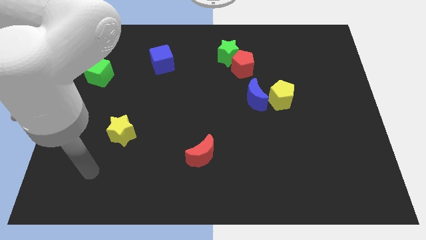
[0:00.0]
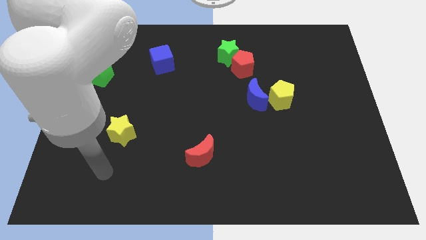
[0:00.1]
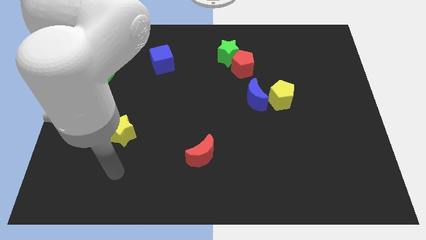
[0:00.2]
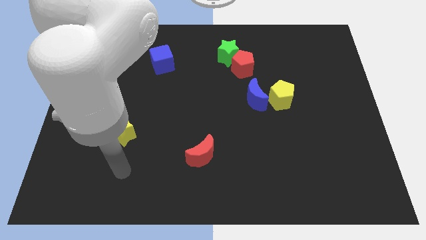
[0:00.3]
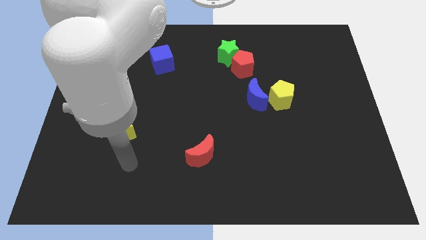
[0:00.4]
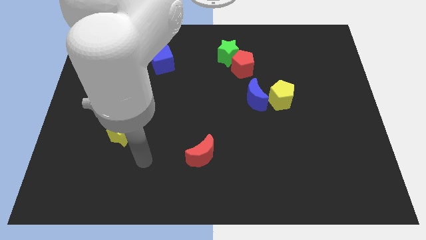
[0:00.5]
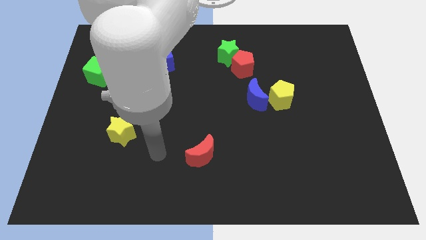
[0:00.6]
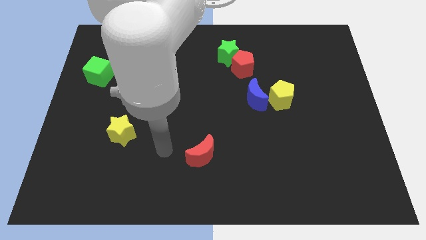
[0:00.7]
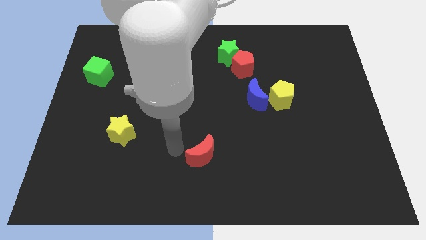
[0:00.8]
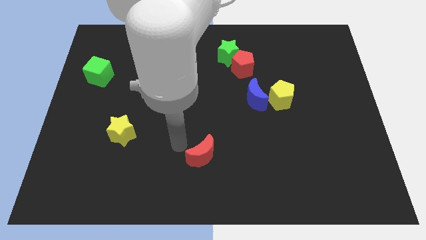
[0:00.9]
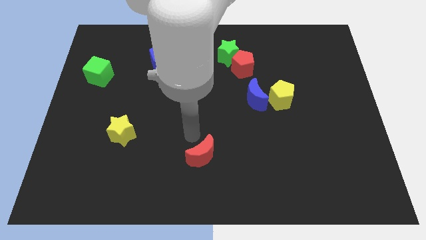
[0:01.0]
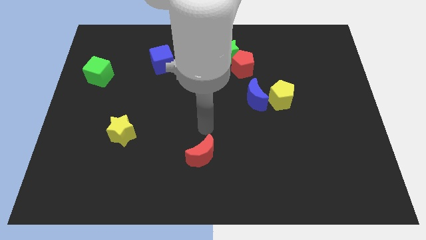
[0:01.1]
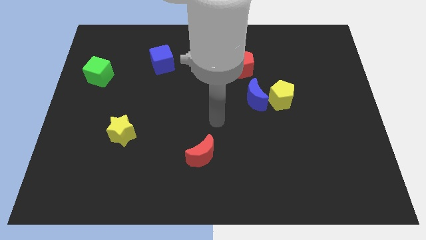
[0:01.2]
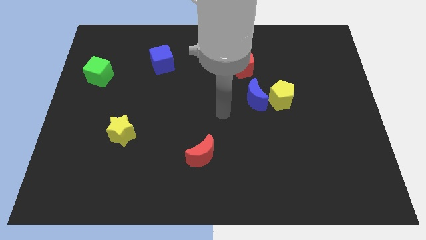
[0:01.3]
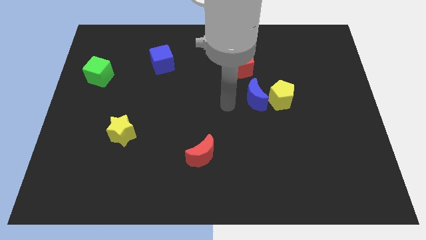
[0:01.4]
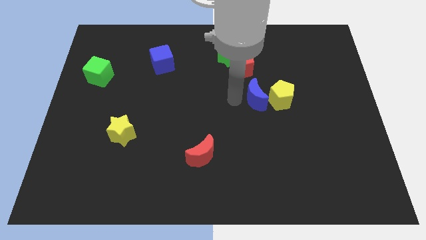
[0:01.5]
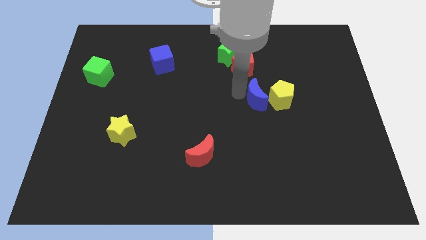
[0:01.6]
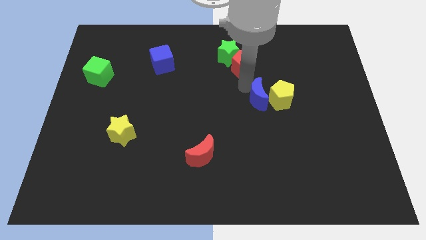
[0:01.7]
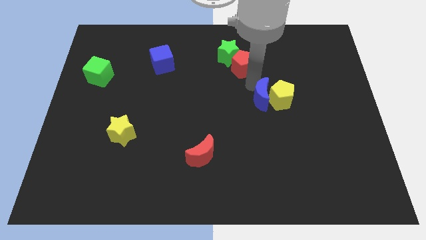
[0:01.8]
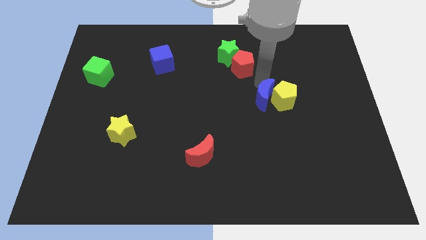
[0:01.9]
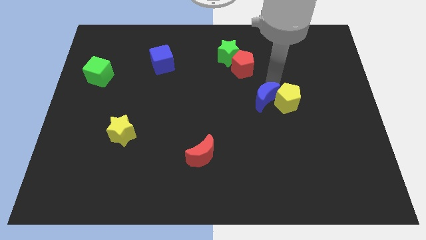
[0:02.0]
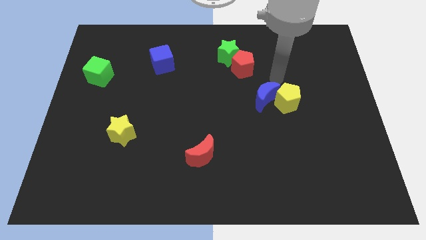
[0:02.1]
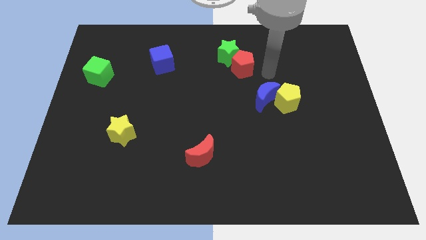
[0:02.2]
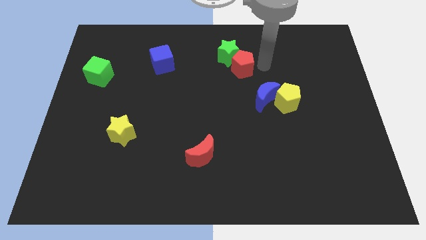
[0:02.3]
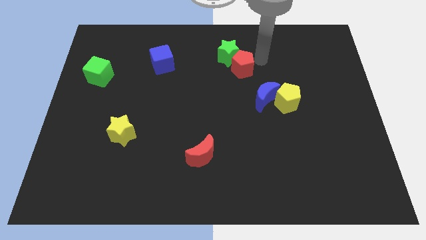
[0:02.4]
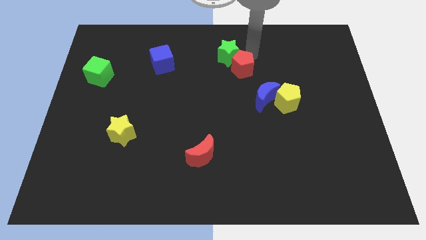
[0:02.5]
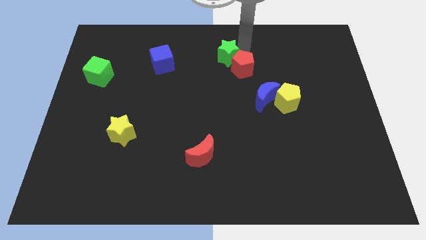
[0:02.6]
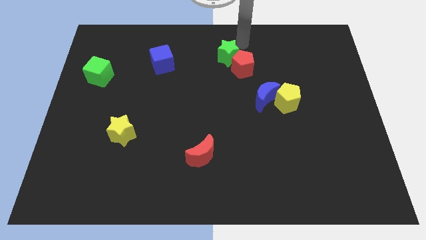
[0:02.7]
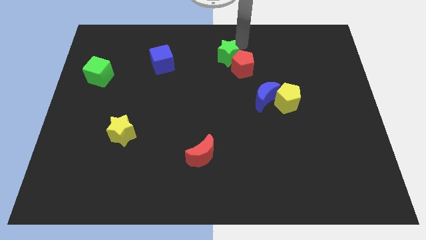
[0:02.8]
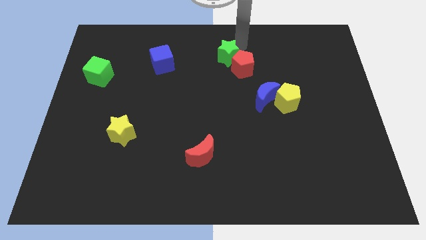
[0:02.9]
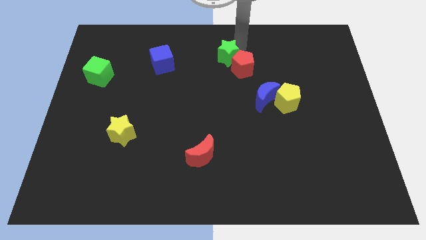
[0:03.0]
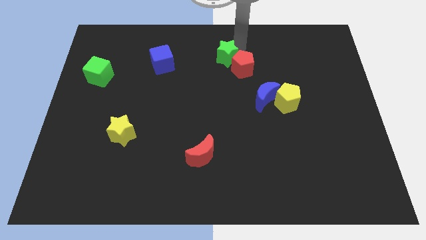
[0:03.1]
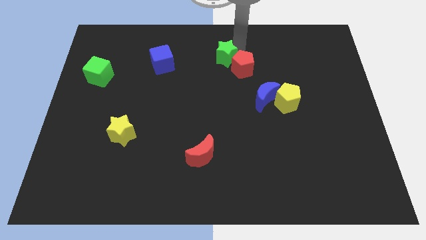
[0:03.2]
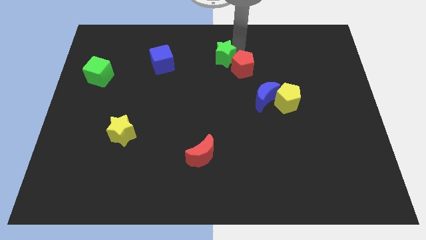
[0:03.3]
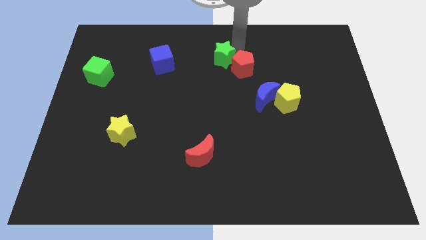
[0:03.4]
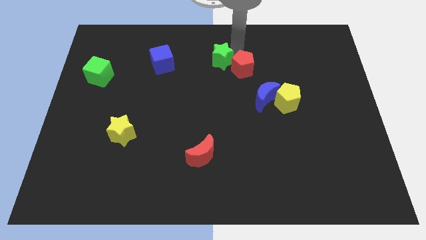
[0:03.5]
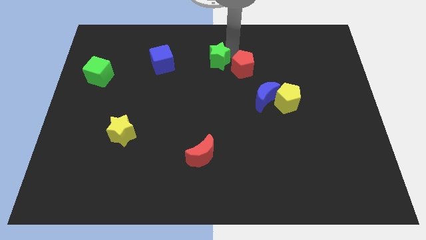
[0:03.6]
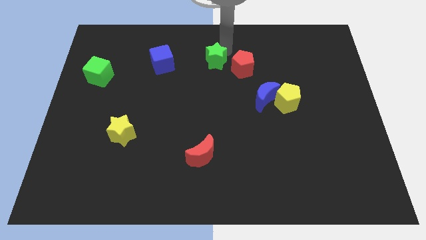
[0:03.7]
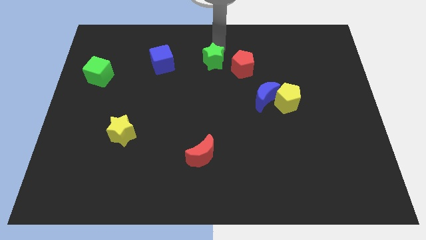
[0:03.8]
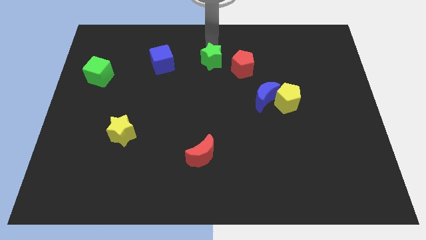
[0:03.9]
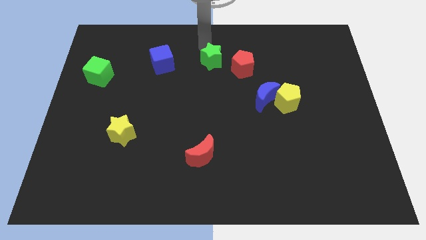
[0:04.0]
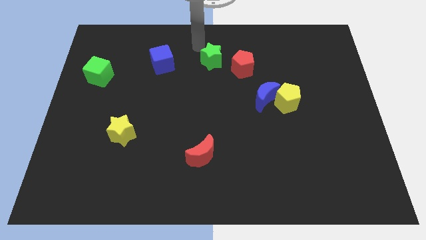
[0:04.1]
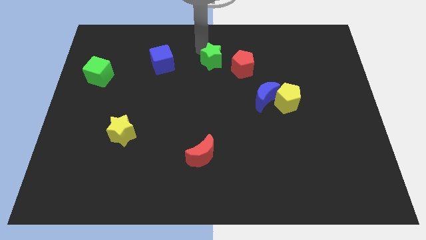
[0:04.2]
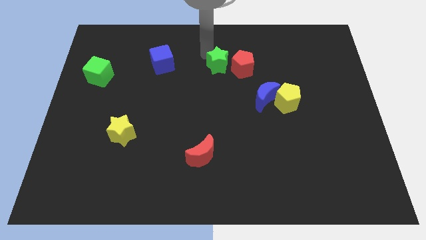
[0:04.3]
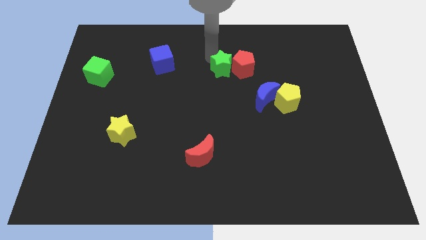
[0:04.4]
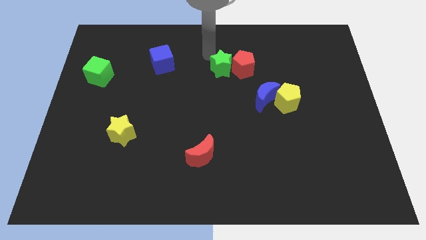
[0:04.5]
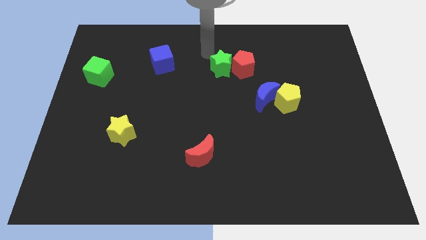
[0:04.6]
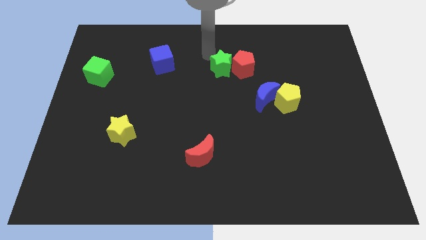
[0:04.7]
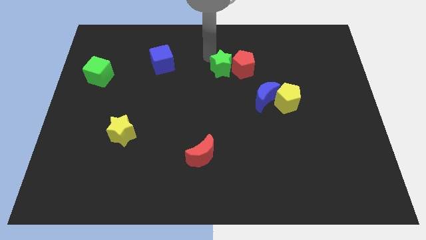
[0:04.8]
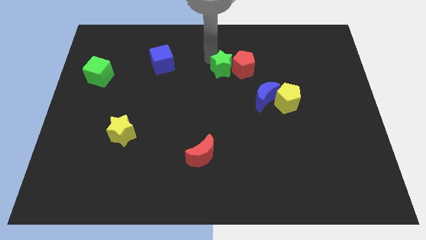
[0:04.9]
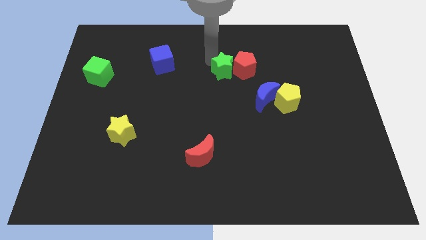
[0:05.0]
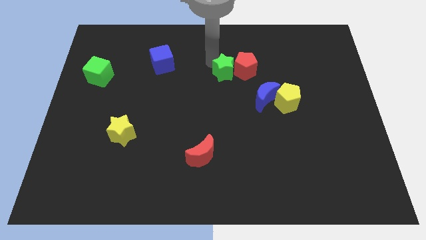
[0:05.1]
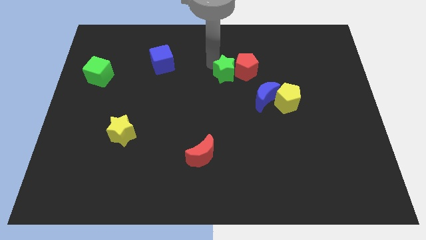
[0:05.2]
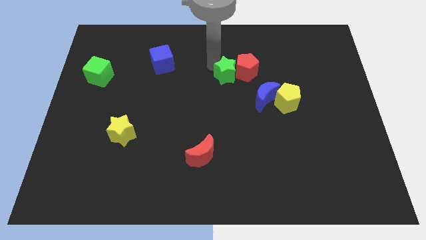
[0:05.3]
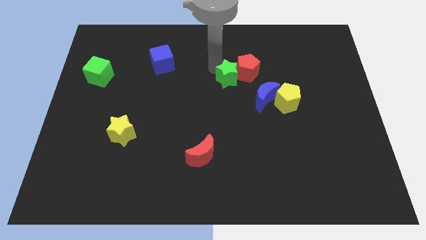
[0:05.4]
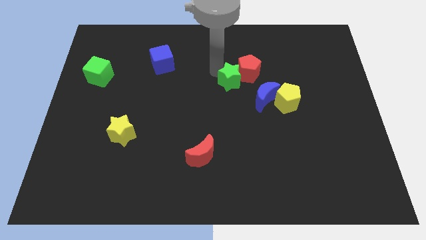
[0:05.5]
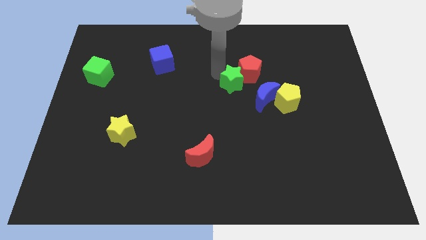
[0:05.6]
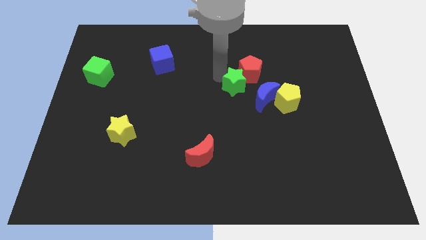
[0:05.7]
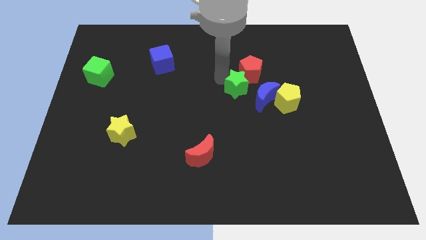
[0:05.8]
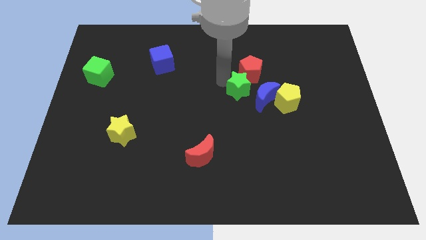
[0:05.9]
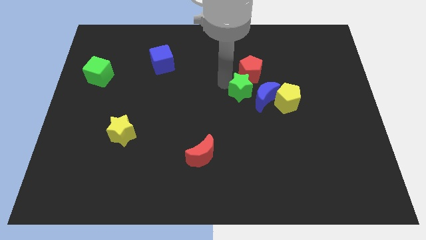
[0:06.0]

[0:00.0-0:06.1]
put the green star close to the blue moon
